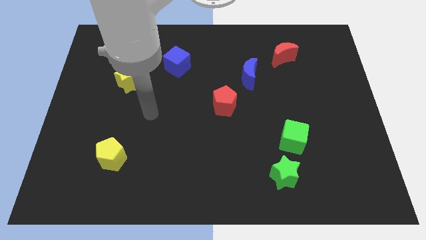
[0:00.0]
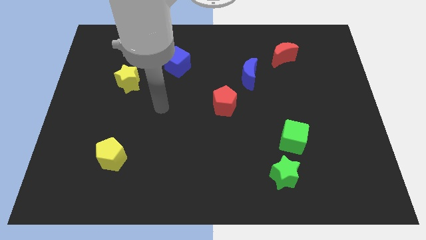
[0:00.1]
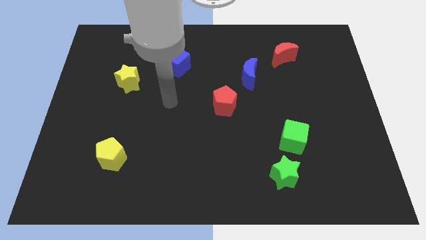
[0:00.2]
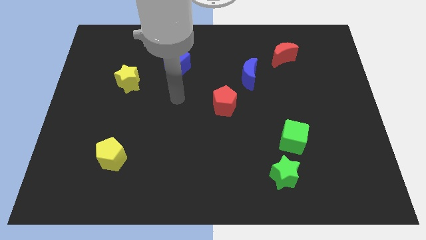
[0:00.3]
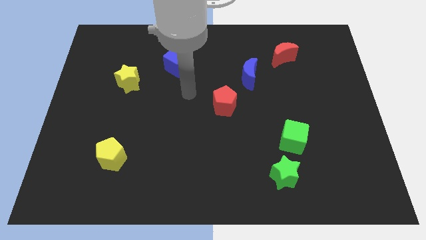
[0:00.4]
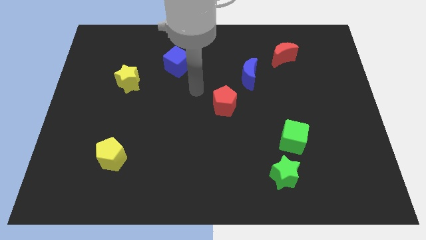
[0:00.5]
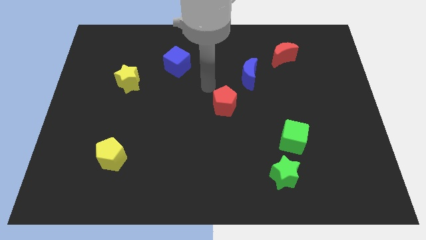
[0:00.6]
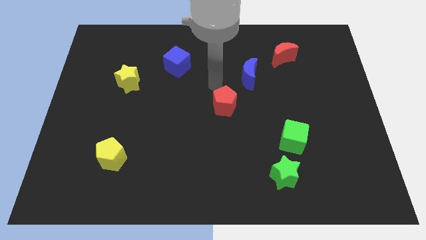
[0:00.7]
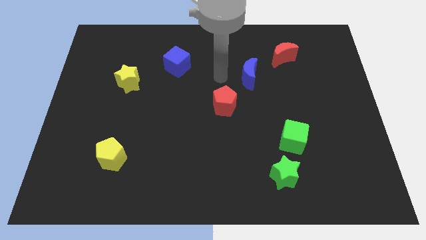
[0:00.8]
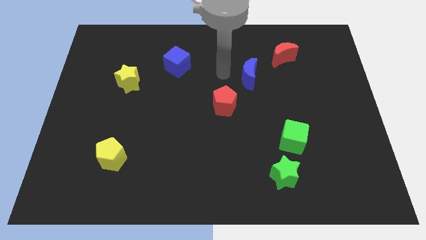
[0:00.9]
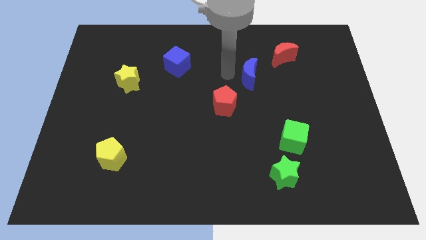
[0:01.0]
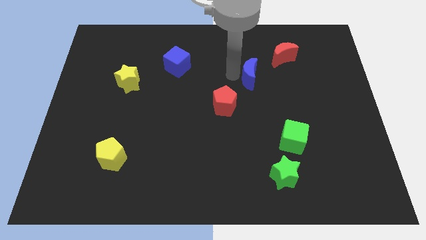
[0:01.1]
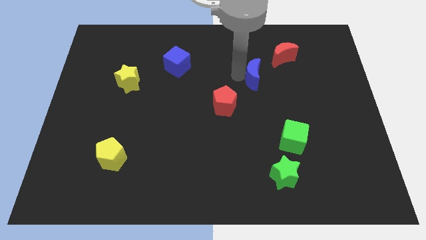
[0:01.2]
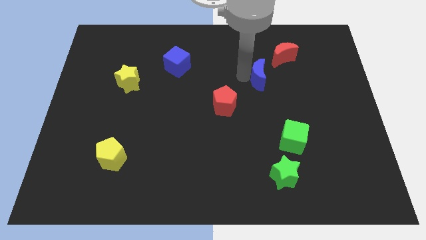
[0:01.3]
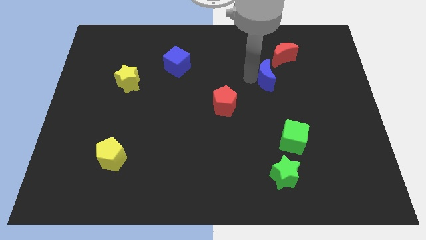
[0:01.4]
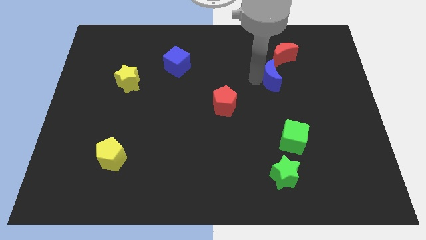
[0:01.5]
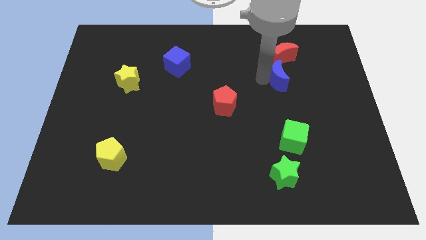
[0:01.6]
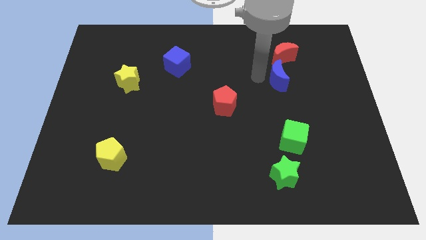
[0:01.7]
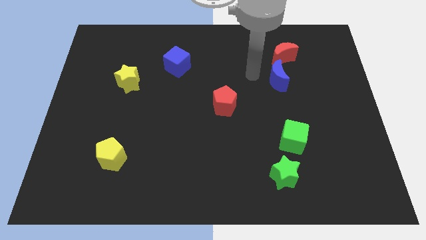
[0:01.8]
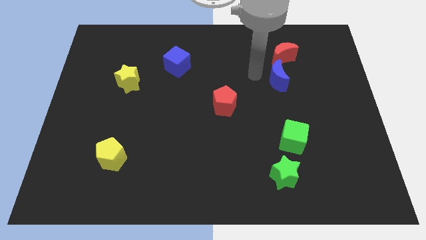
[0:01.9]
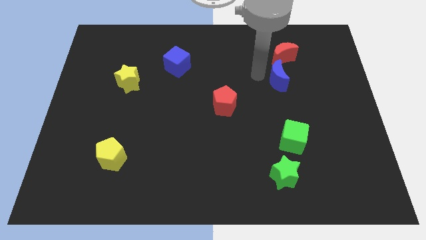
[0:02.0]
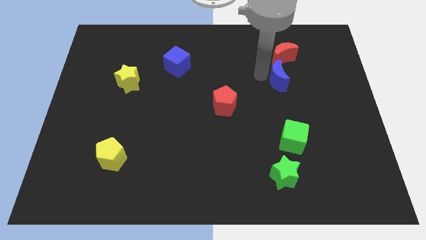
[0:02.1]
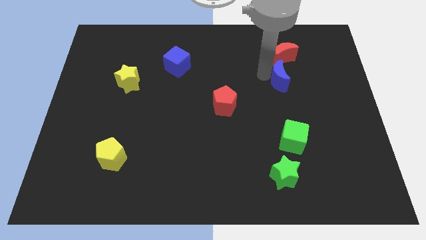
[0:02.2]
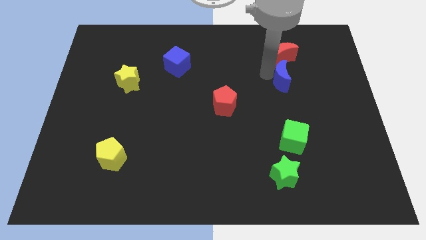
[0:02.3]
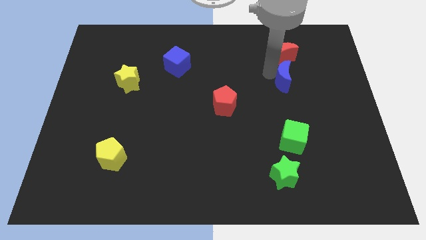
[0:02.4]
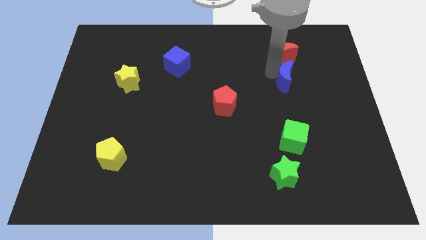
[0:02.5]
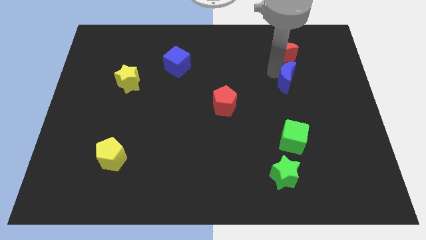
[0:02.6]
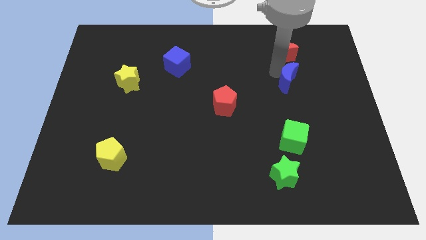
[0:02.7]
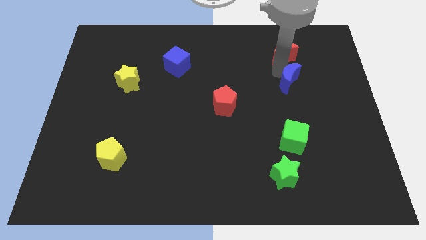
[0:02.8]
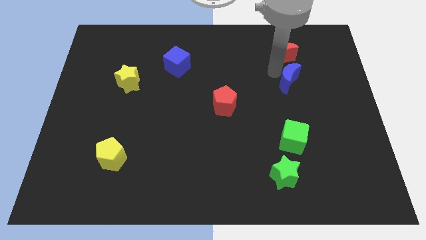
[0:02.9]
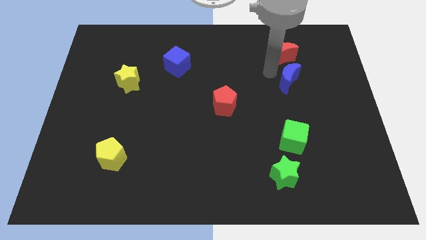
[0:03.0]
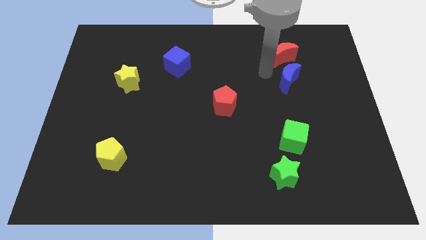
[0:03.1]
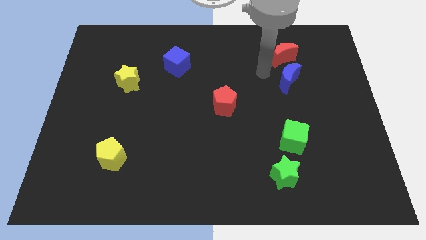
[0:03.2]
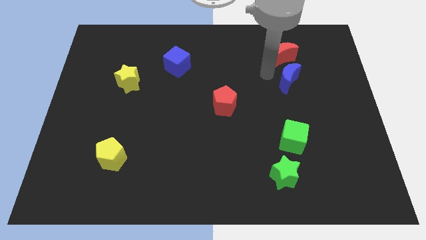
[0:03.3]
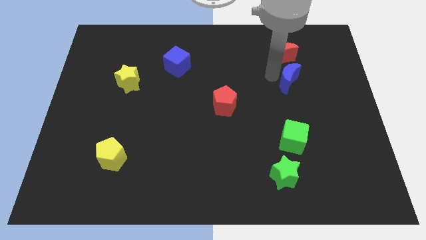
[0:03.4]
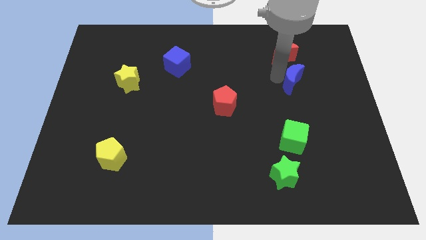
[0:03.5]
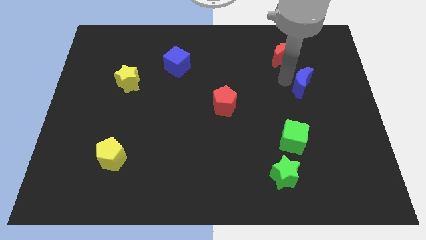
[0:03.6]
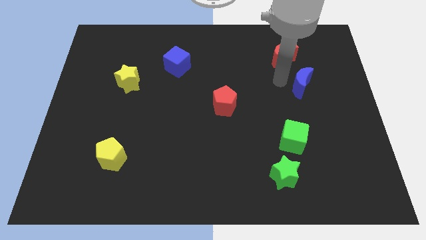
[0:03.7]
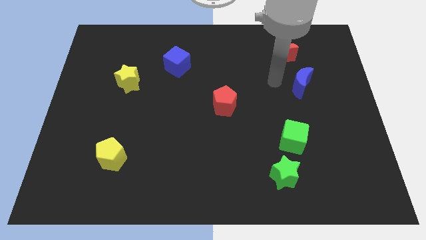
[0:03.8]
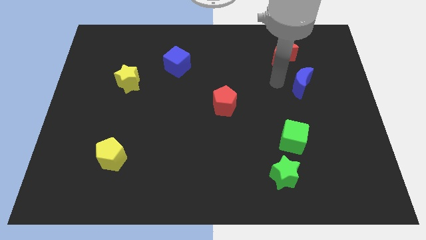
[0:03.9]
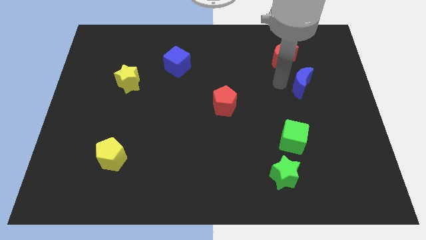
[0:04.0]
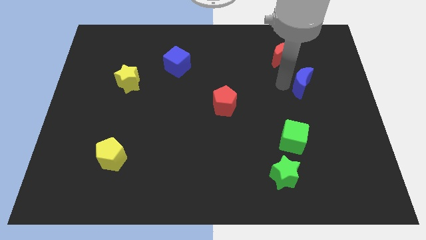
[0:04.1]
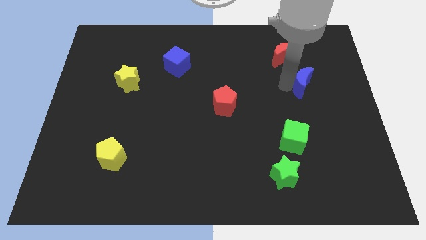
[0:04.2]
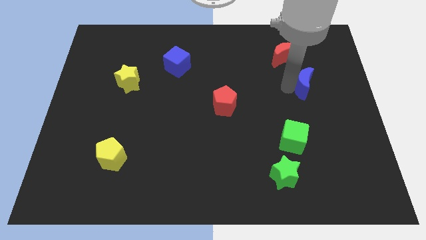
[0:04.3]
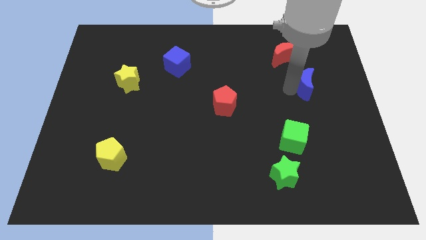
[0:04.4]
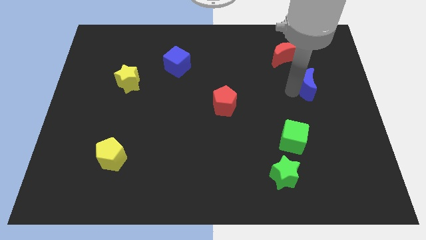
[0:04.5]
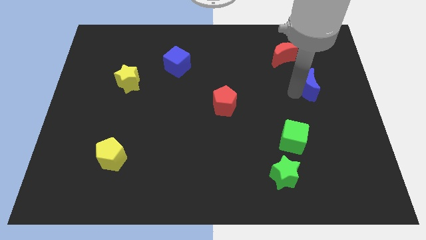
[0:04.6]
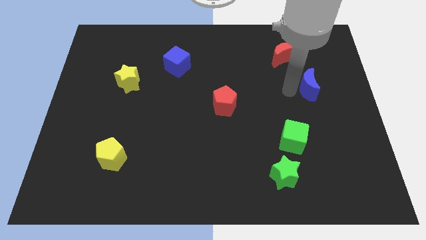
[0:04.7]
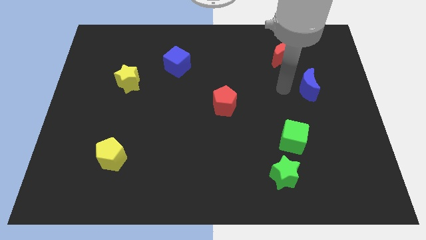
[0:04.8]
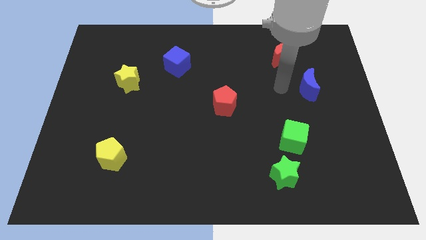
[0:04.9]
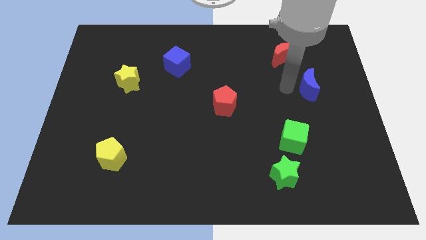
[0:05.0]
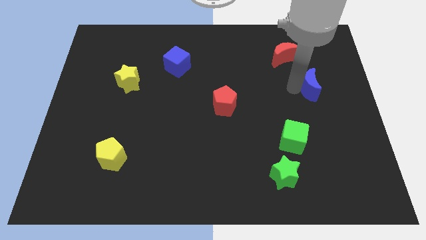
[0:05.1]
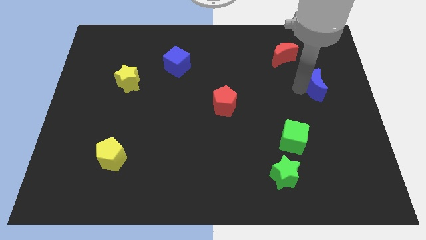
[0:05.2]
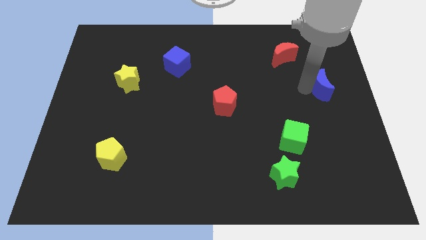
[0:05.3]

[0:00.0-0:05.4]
push the blue moon to the right side
